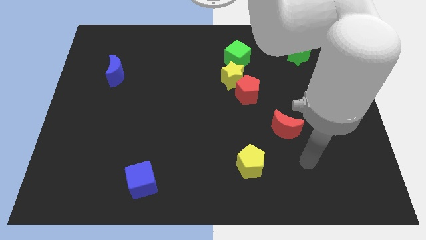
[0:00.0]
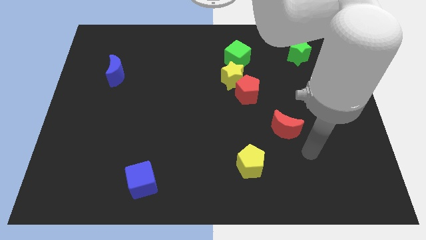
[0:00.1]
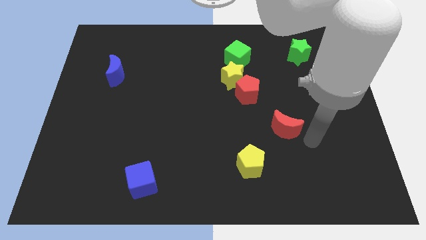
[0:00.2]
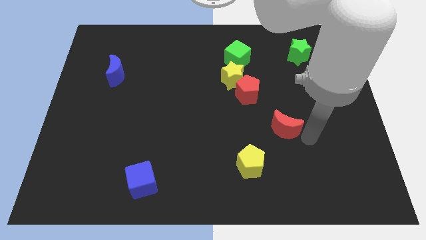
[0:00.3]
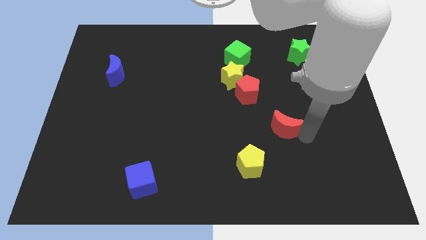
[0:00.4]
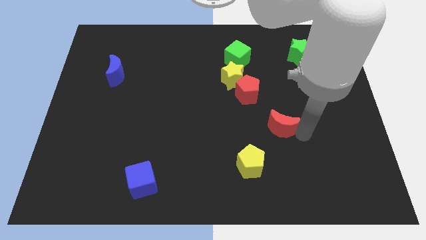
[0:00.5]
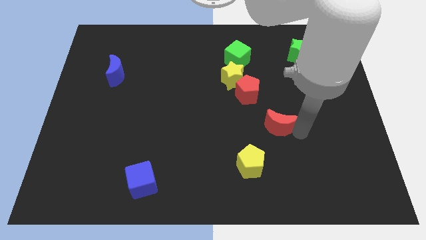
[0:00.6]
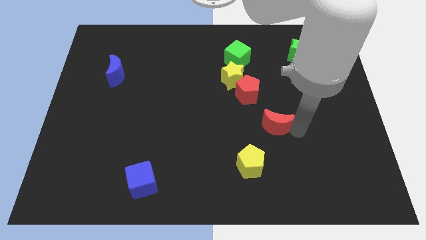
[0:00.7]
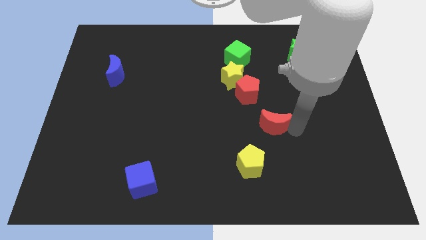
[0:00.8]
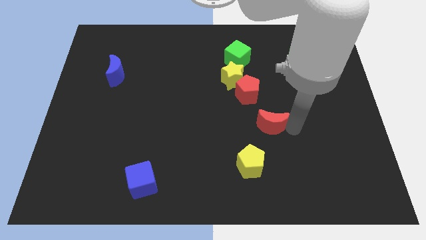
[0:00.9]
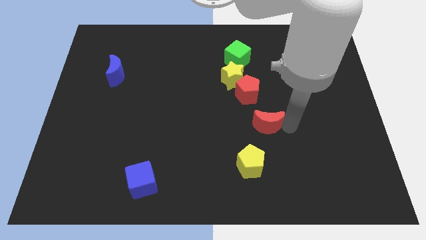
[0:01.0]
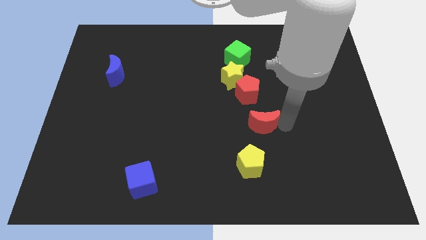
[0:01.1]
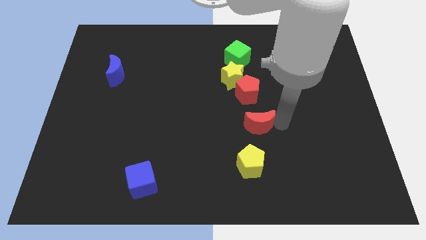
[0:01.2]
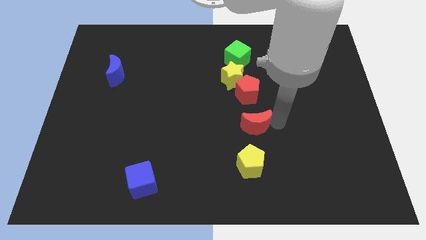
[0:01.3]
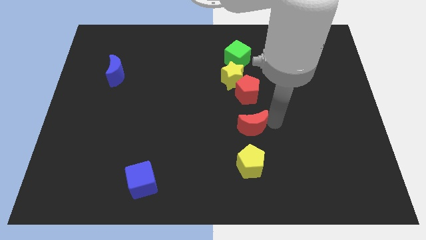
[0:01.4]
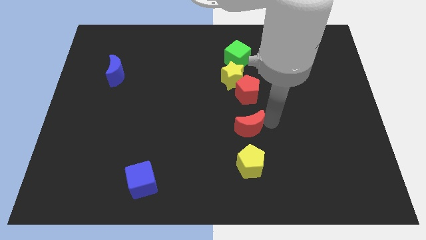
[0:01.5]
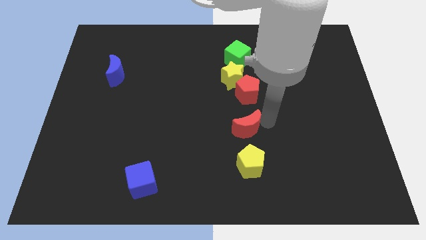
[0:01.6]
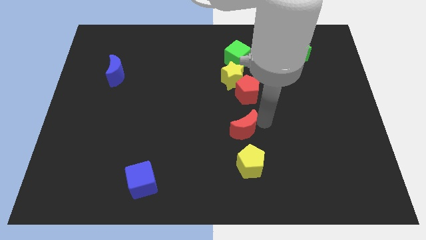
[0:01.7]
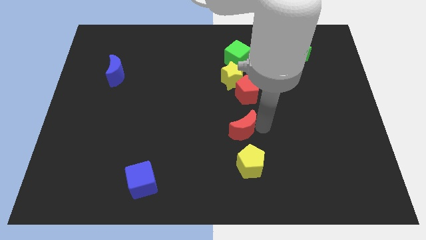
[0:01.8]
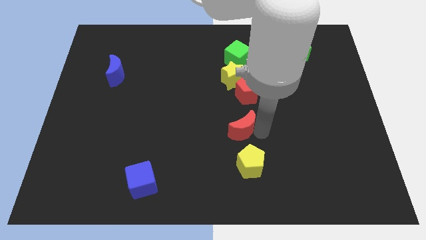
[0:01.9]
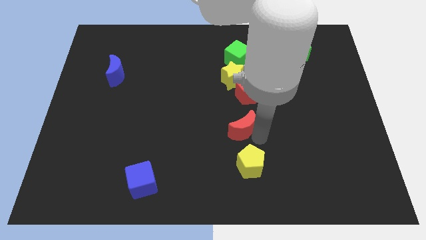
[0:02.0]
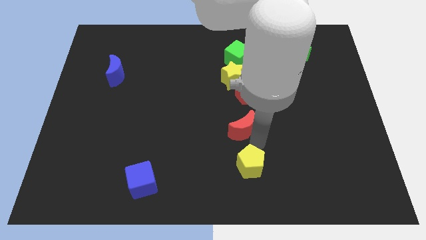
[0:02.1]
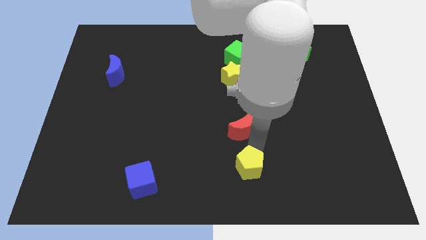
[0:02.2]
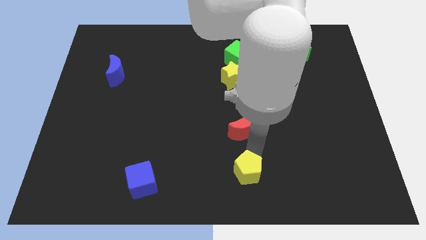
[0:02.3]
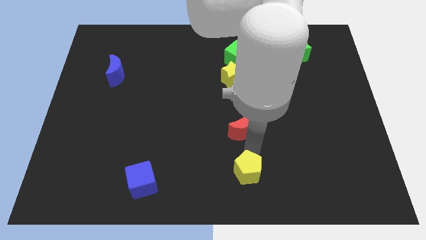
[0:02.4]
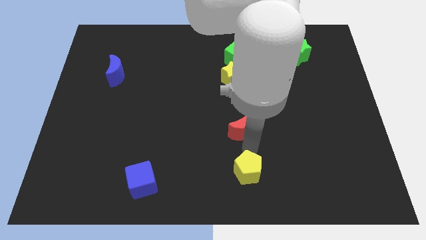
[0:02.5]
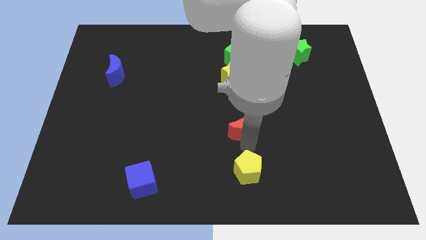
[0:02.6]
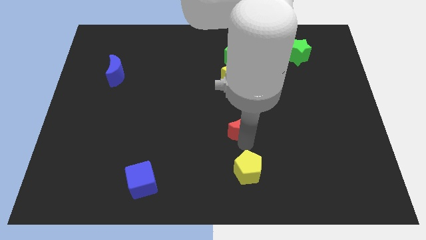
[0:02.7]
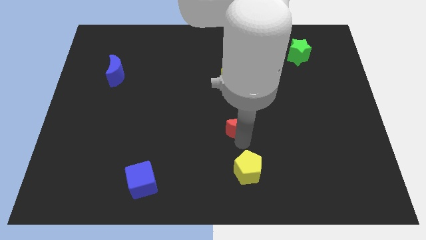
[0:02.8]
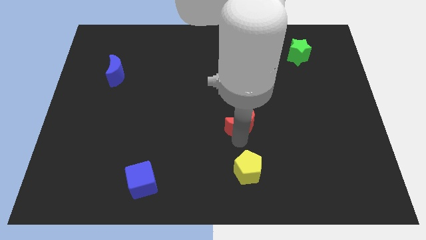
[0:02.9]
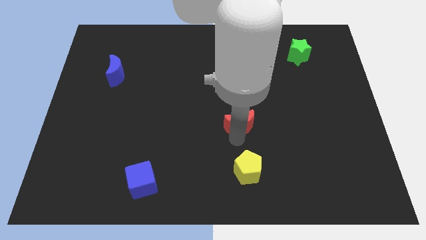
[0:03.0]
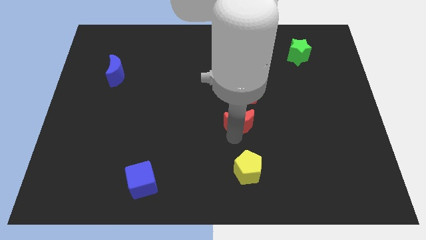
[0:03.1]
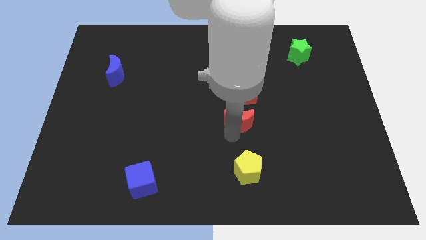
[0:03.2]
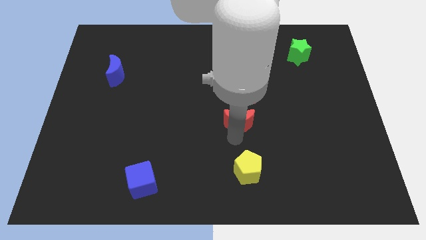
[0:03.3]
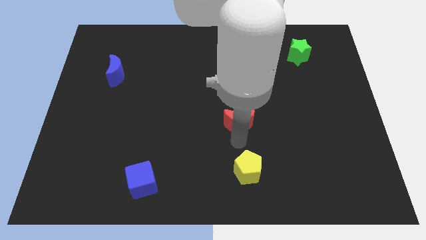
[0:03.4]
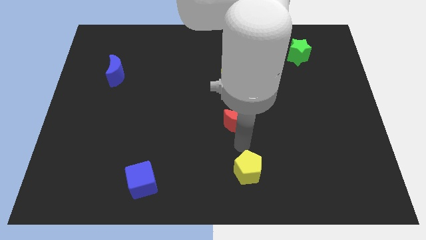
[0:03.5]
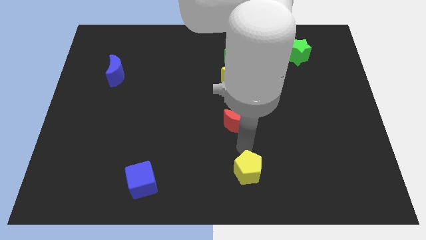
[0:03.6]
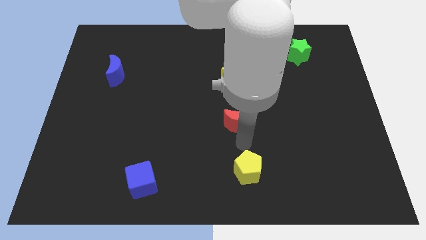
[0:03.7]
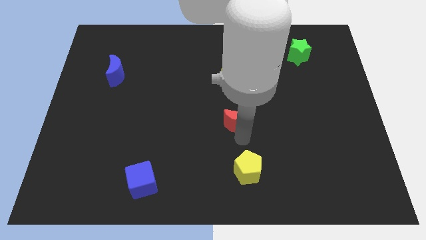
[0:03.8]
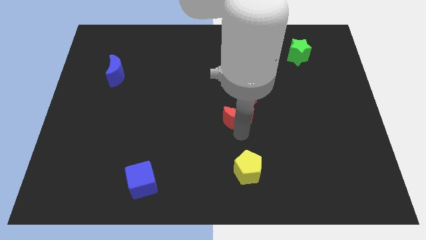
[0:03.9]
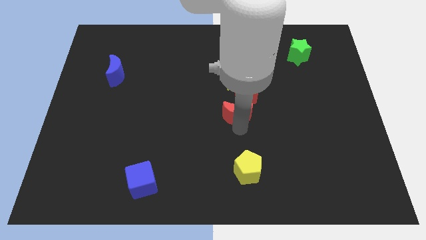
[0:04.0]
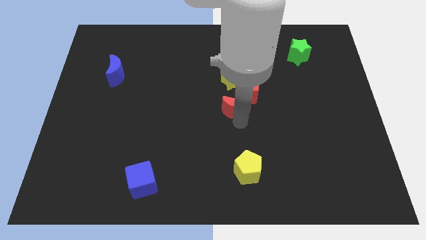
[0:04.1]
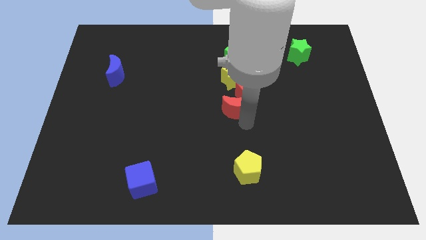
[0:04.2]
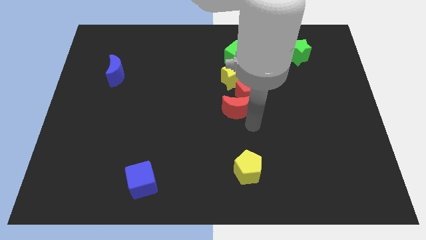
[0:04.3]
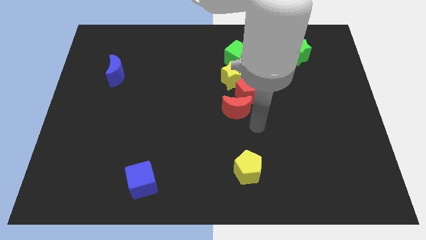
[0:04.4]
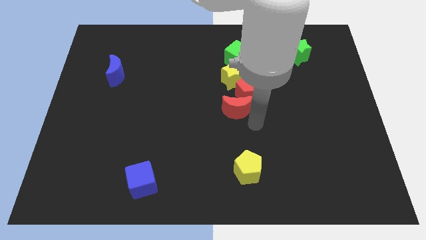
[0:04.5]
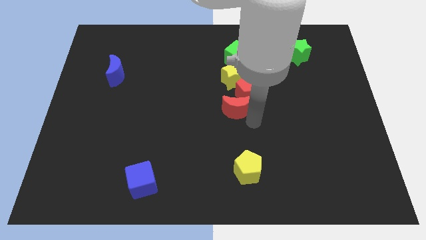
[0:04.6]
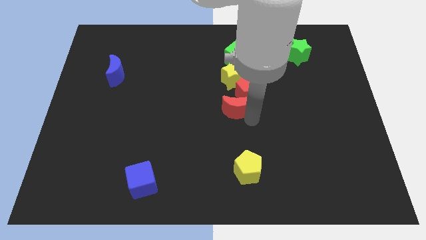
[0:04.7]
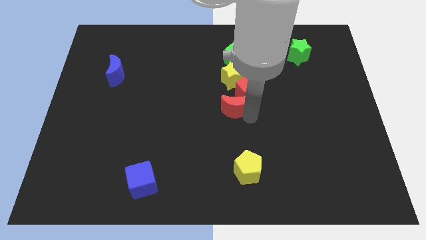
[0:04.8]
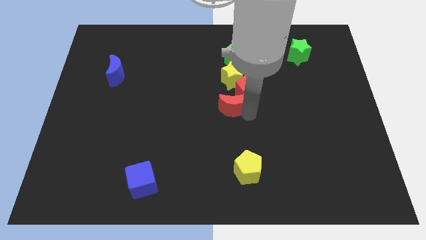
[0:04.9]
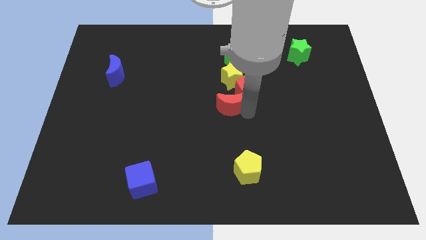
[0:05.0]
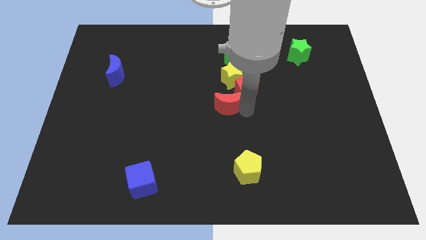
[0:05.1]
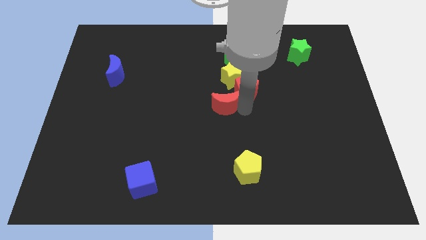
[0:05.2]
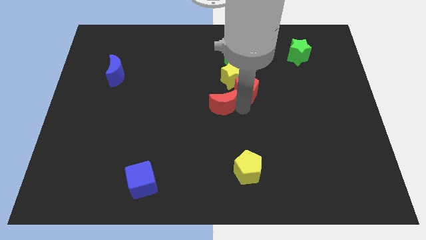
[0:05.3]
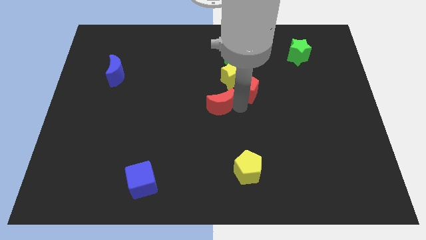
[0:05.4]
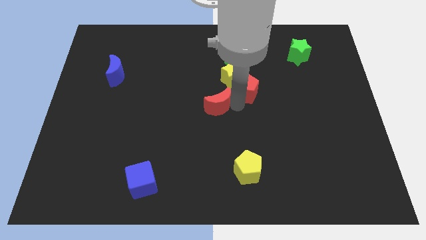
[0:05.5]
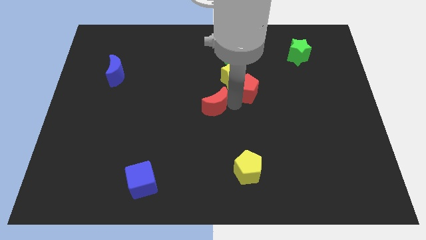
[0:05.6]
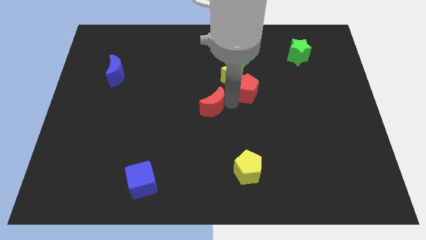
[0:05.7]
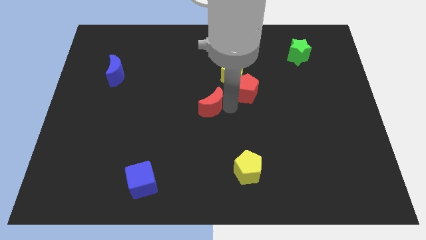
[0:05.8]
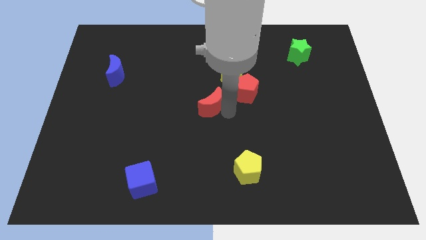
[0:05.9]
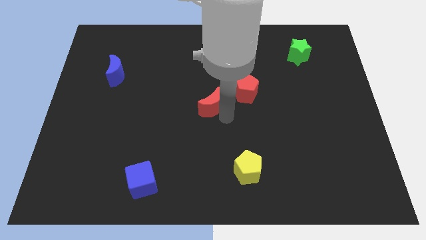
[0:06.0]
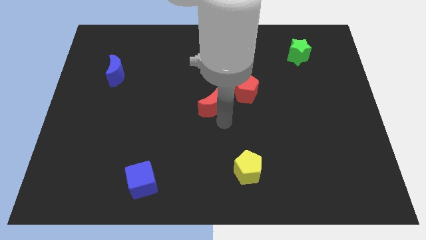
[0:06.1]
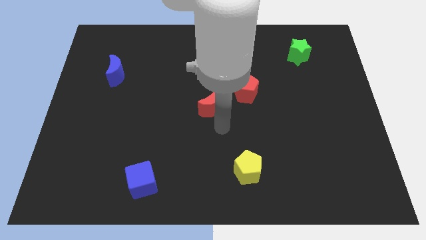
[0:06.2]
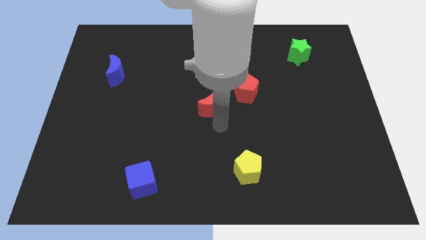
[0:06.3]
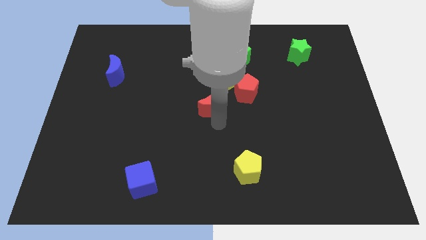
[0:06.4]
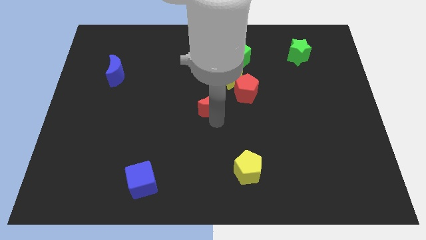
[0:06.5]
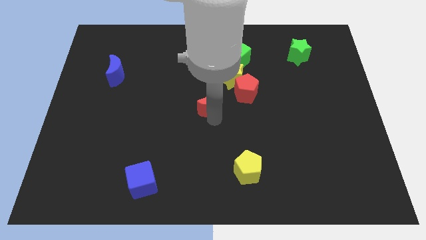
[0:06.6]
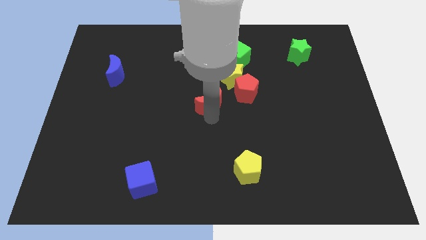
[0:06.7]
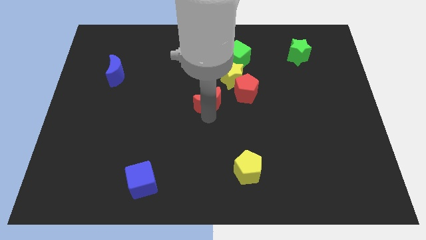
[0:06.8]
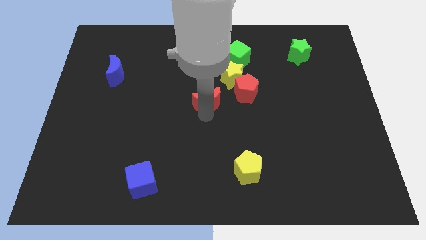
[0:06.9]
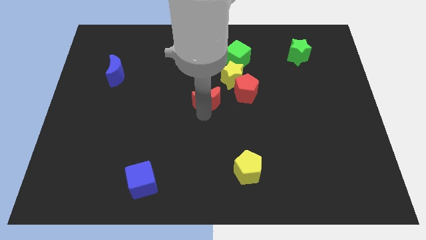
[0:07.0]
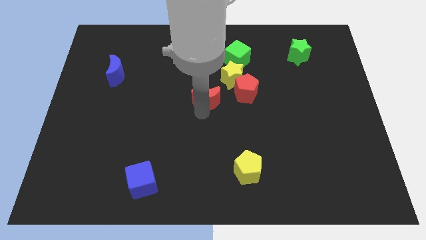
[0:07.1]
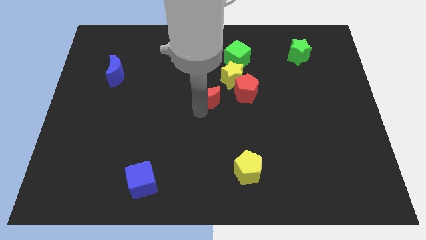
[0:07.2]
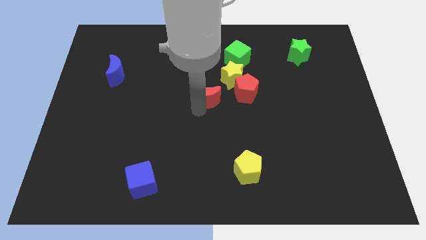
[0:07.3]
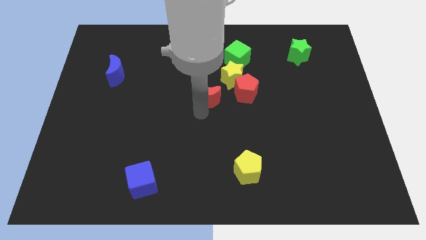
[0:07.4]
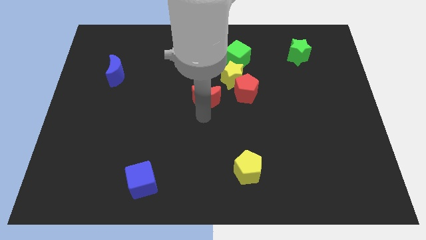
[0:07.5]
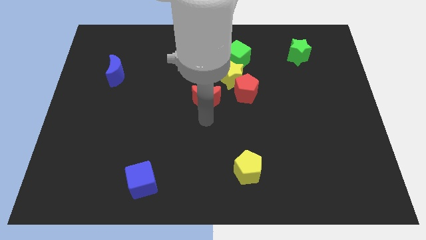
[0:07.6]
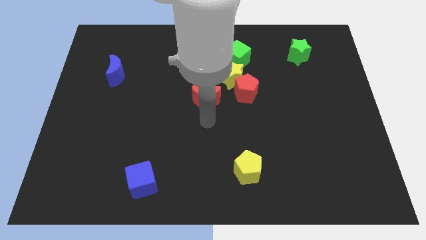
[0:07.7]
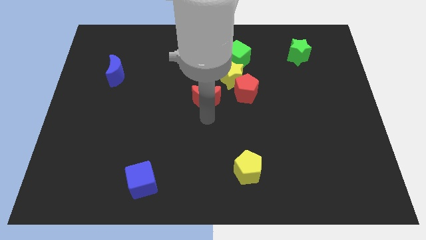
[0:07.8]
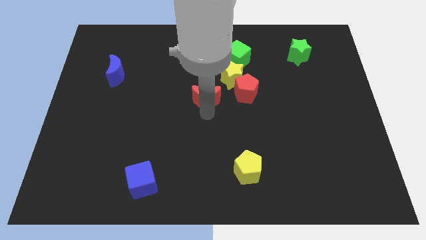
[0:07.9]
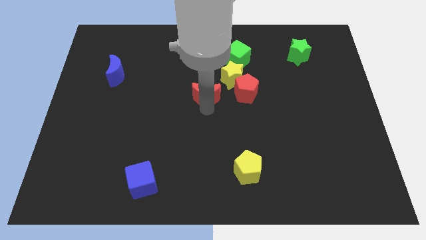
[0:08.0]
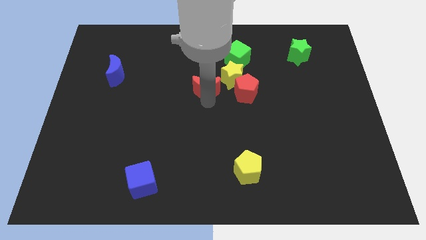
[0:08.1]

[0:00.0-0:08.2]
slide the red moon diagonally up and left
